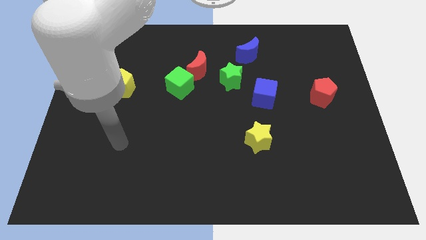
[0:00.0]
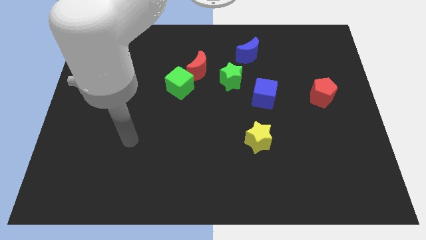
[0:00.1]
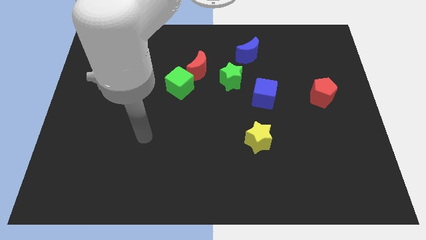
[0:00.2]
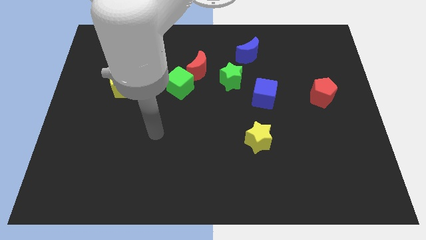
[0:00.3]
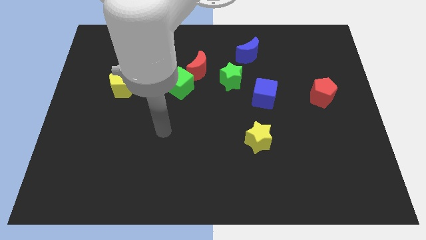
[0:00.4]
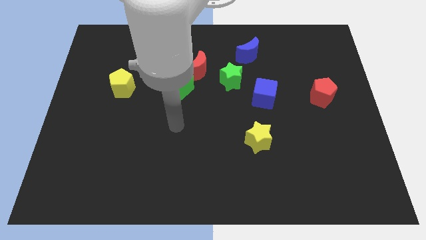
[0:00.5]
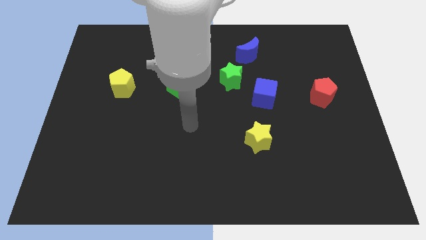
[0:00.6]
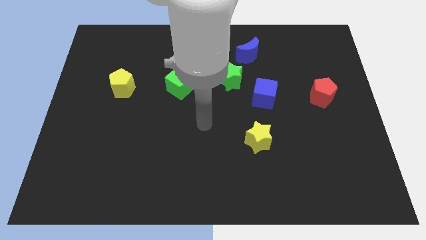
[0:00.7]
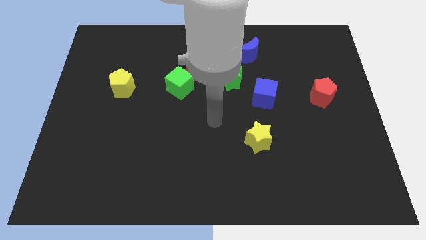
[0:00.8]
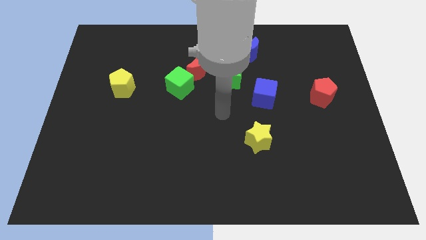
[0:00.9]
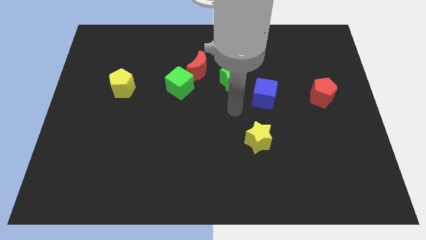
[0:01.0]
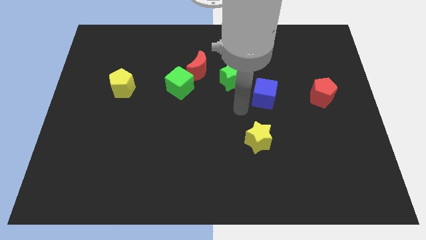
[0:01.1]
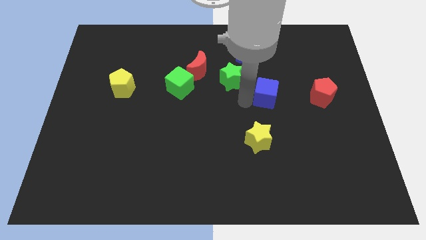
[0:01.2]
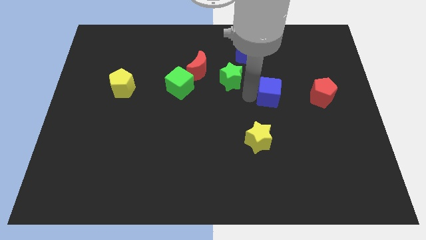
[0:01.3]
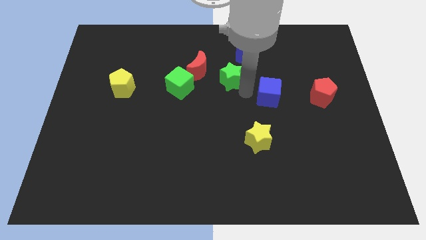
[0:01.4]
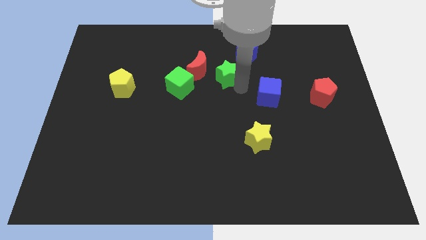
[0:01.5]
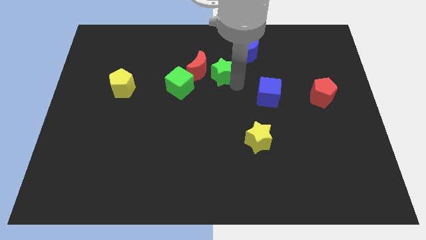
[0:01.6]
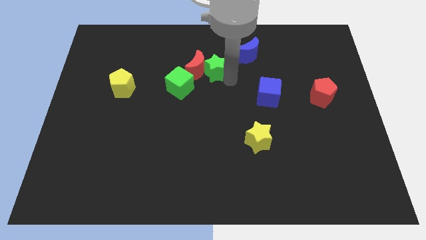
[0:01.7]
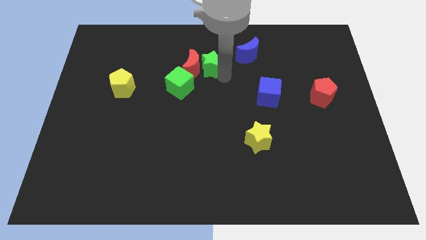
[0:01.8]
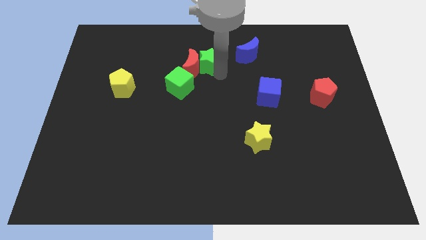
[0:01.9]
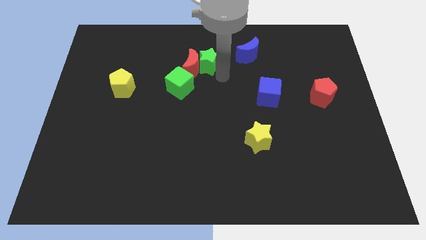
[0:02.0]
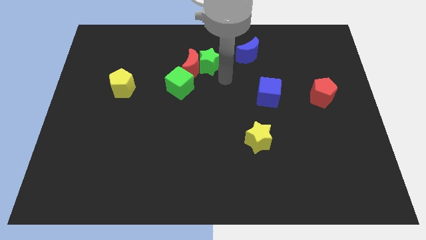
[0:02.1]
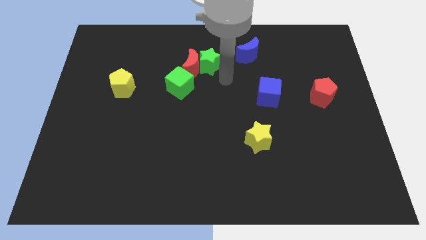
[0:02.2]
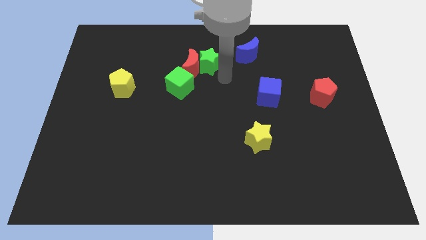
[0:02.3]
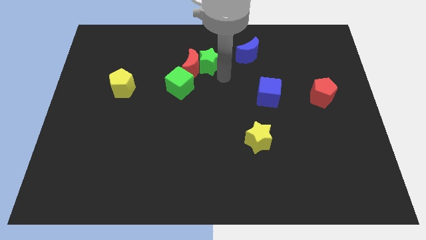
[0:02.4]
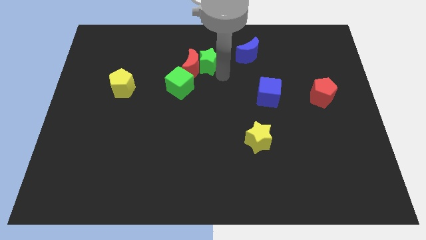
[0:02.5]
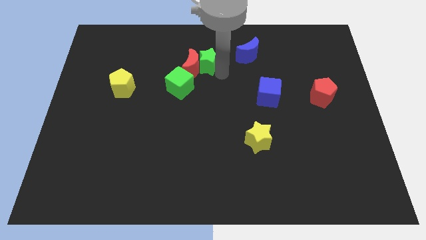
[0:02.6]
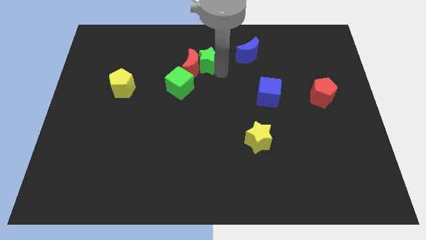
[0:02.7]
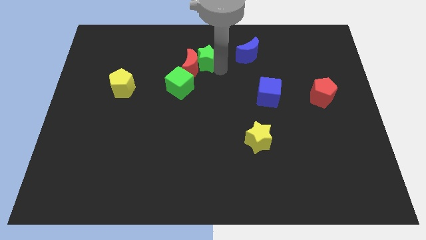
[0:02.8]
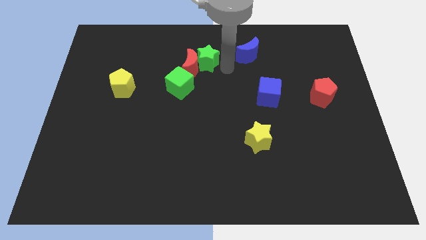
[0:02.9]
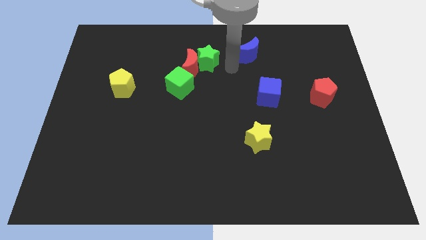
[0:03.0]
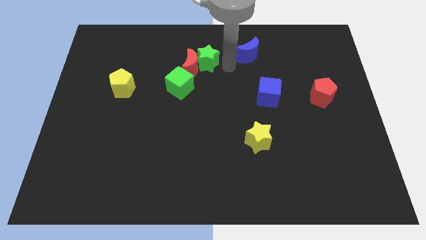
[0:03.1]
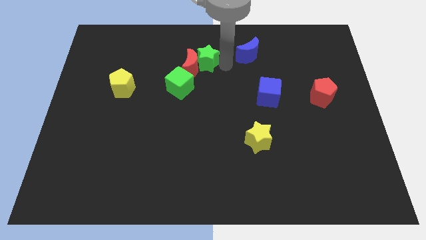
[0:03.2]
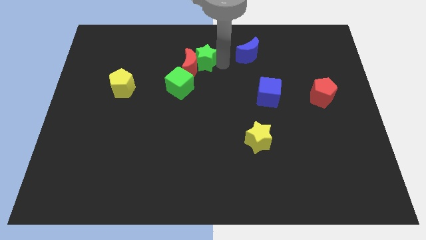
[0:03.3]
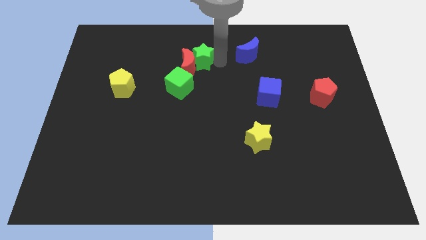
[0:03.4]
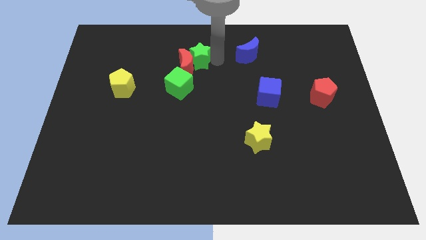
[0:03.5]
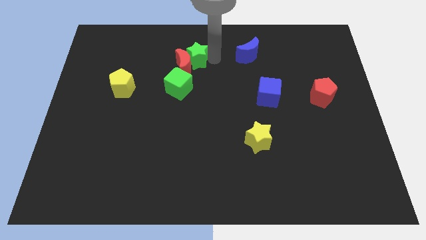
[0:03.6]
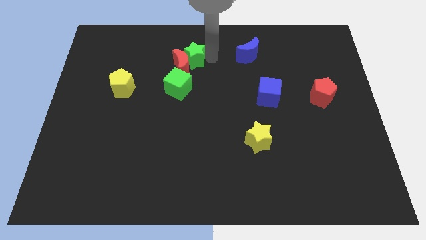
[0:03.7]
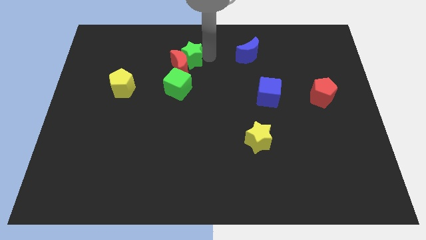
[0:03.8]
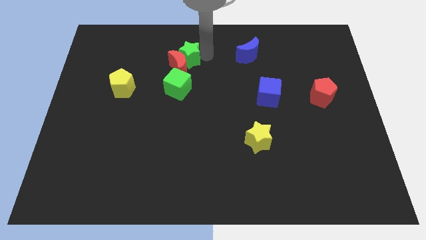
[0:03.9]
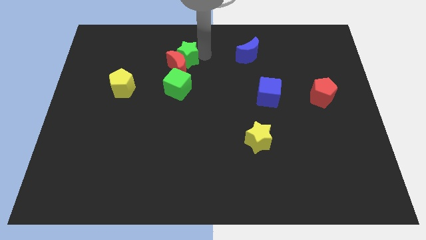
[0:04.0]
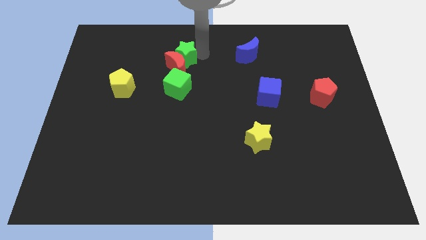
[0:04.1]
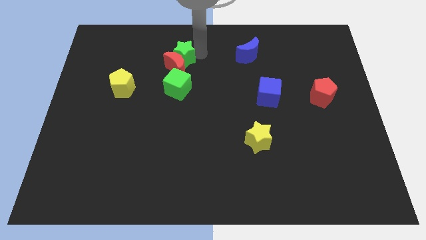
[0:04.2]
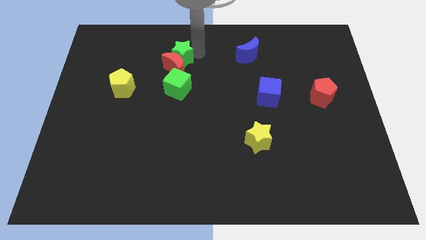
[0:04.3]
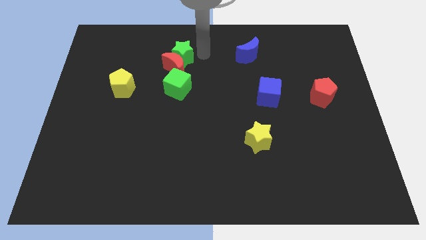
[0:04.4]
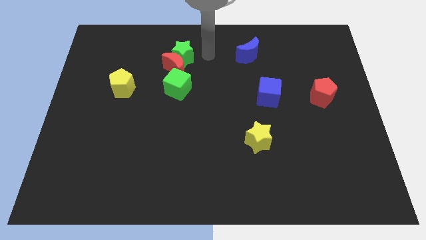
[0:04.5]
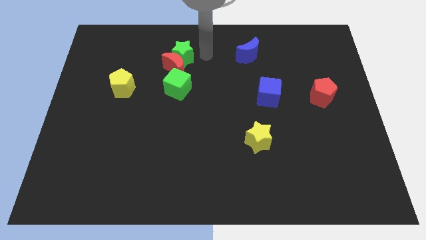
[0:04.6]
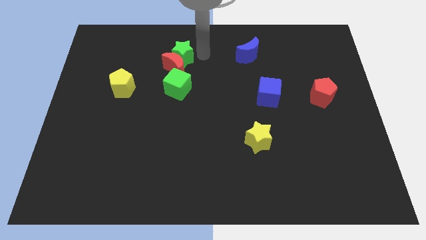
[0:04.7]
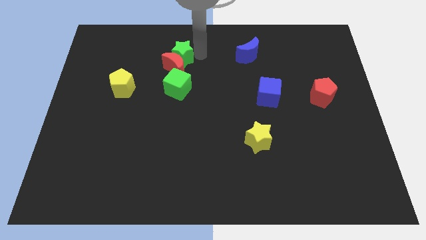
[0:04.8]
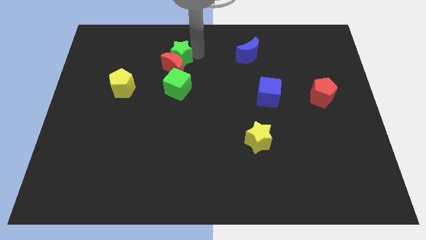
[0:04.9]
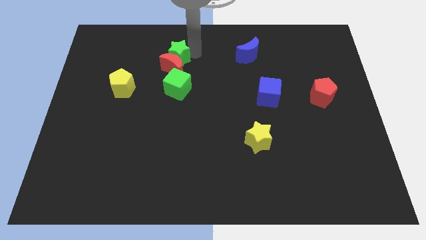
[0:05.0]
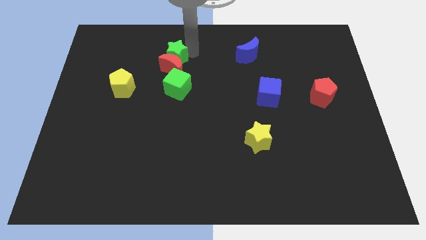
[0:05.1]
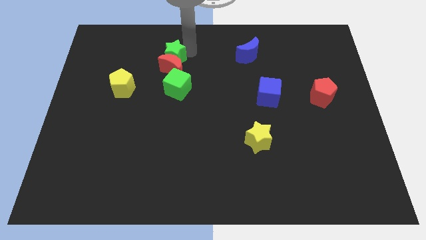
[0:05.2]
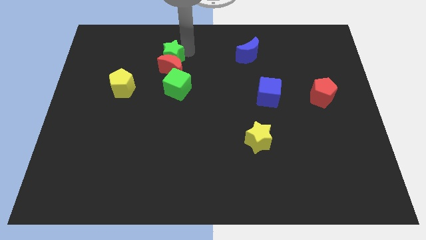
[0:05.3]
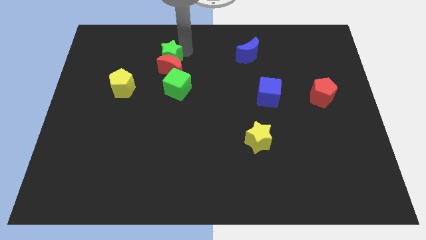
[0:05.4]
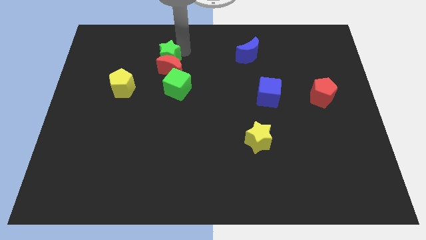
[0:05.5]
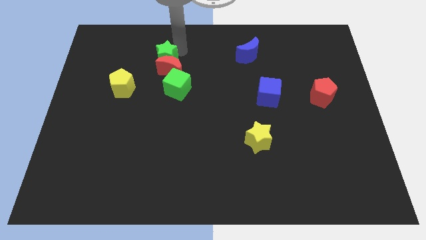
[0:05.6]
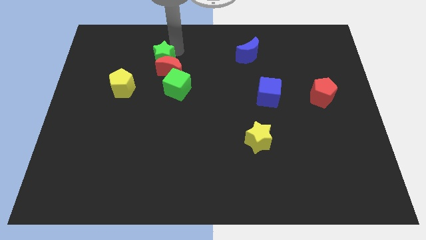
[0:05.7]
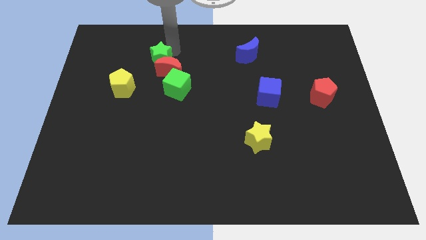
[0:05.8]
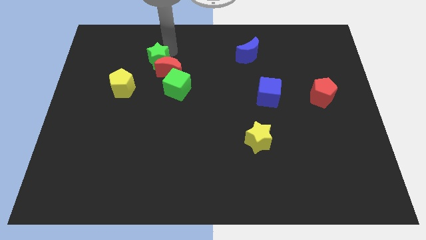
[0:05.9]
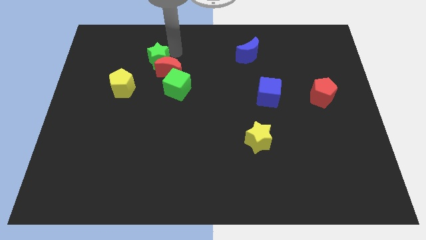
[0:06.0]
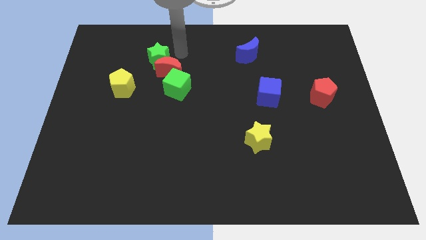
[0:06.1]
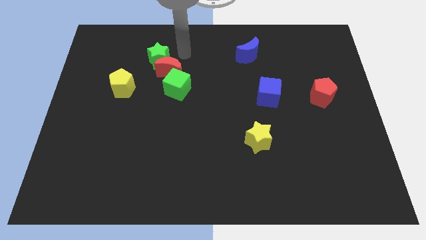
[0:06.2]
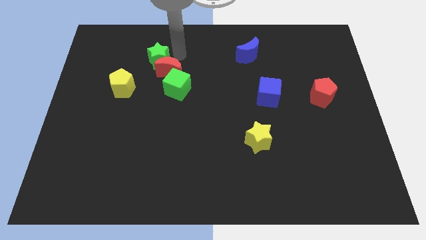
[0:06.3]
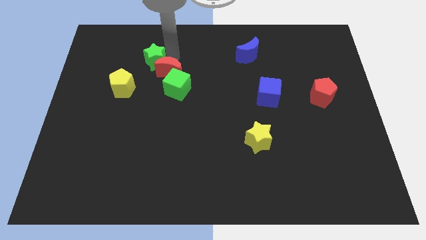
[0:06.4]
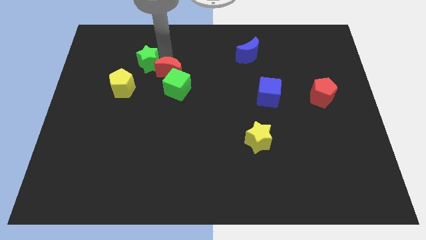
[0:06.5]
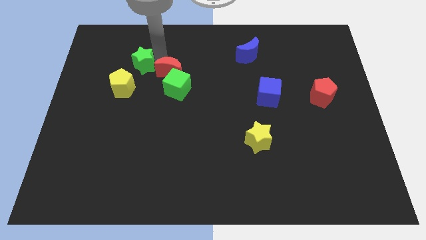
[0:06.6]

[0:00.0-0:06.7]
push the green star left

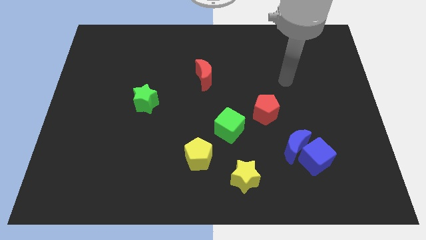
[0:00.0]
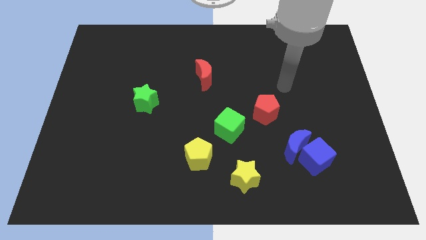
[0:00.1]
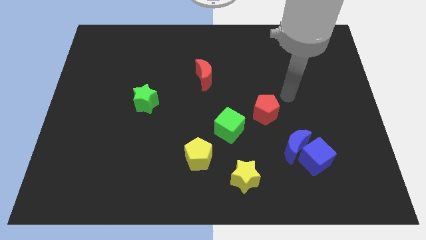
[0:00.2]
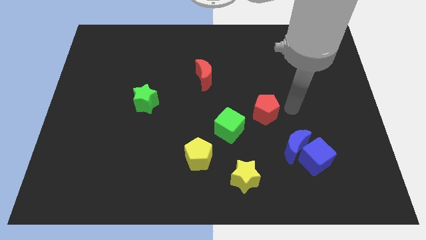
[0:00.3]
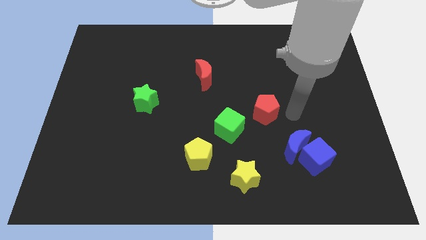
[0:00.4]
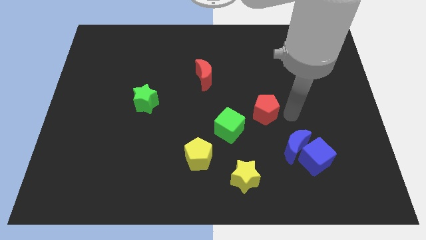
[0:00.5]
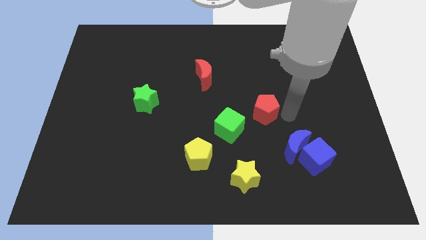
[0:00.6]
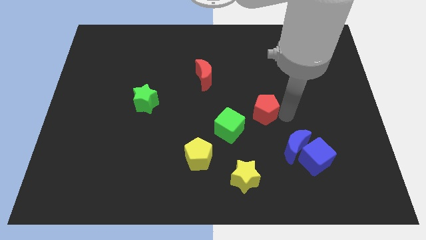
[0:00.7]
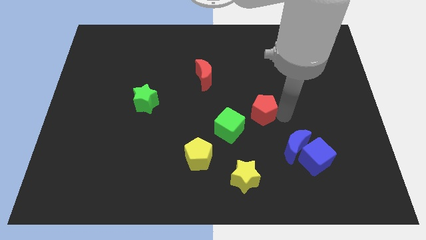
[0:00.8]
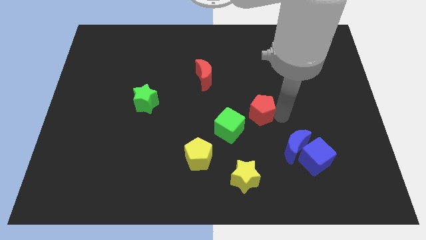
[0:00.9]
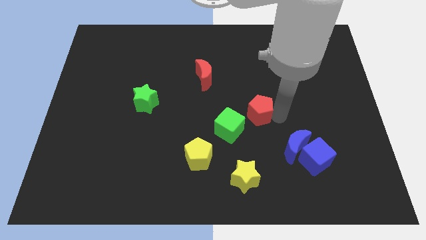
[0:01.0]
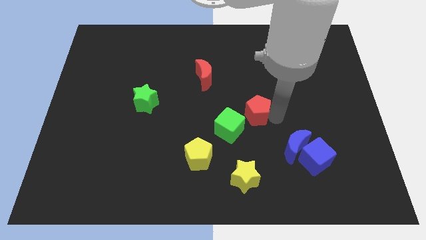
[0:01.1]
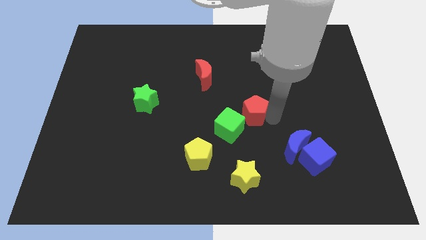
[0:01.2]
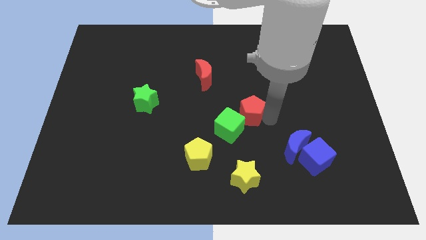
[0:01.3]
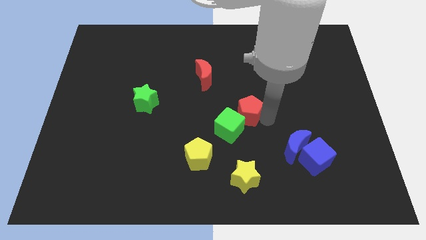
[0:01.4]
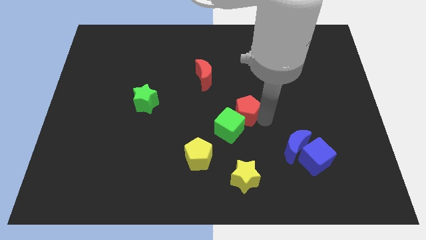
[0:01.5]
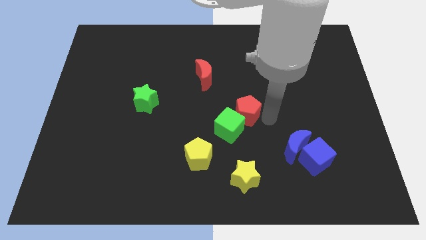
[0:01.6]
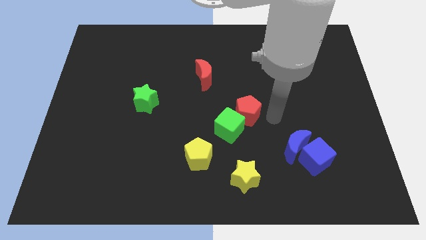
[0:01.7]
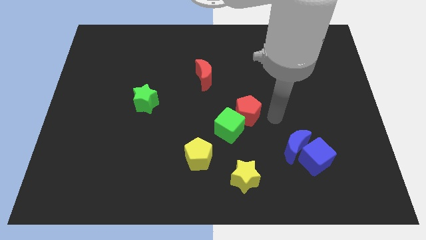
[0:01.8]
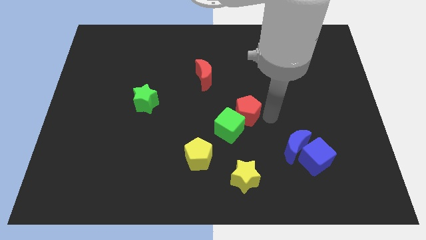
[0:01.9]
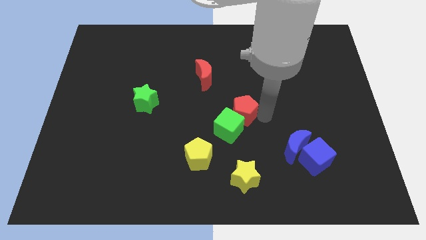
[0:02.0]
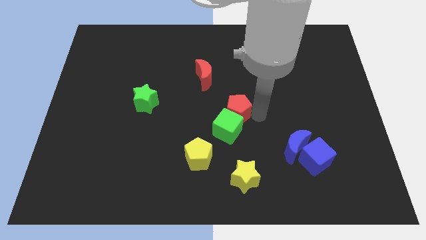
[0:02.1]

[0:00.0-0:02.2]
slightly move the red pentagon to the left
